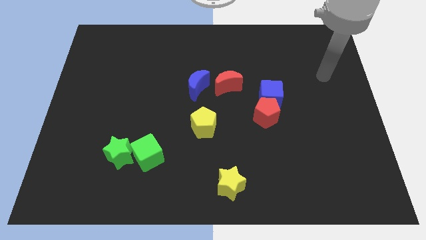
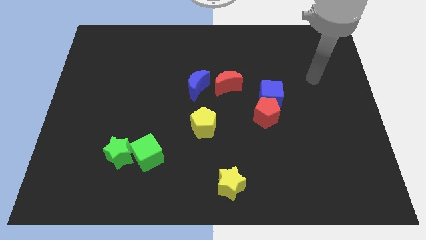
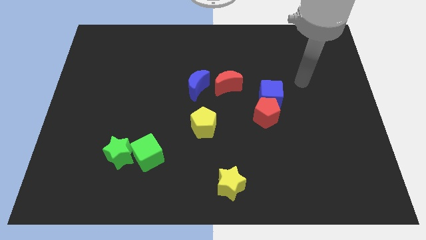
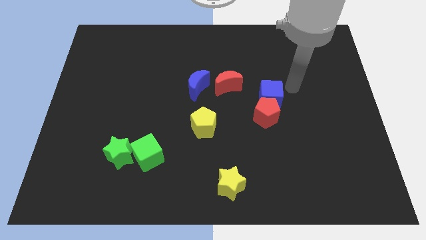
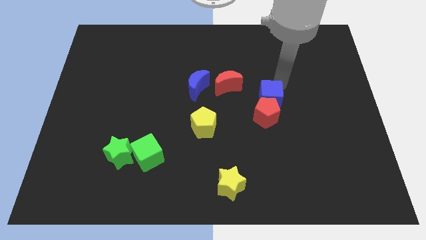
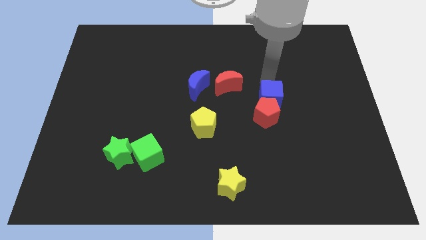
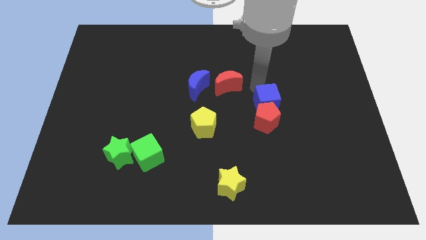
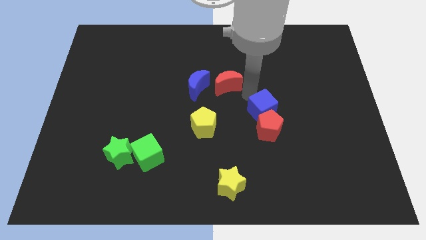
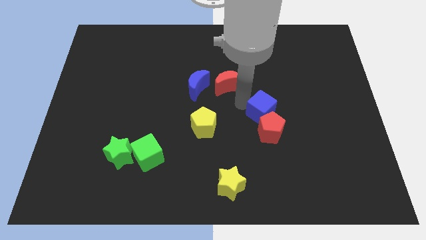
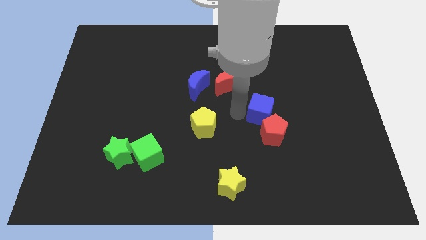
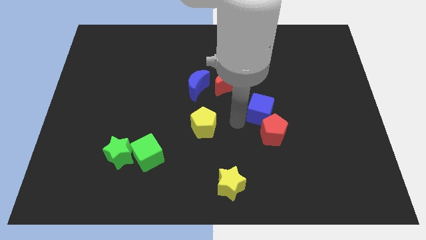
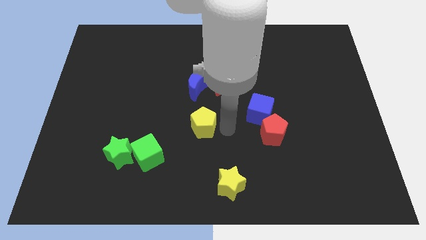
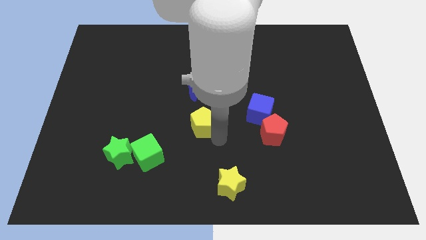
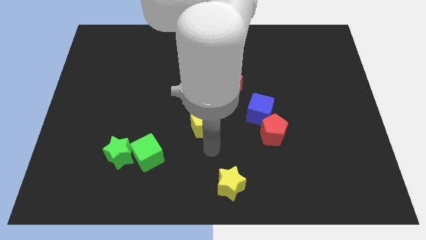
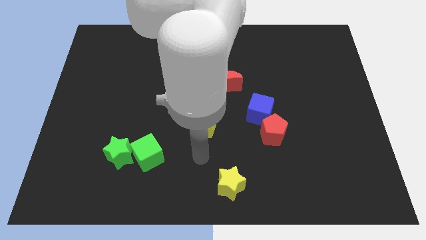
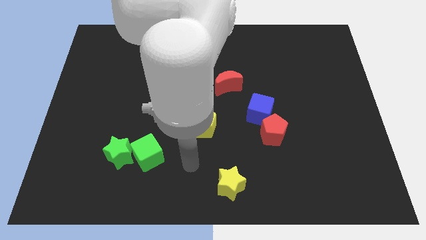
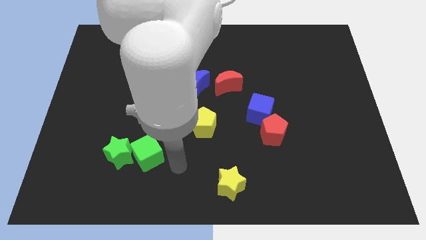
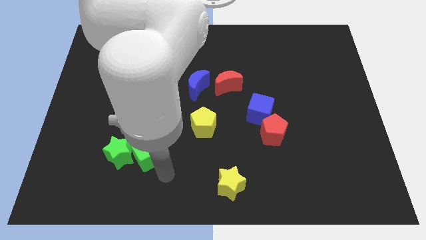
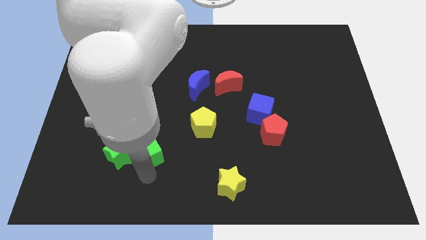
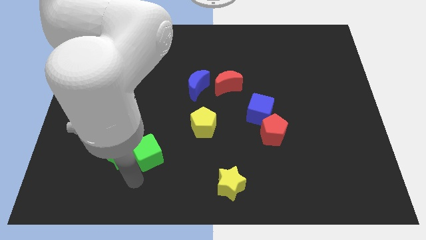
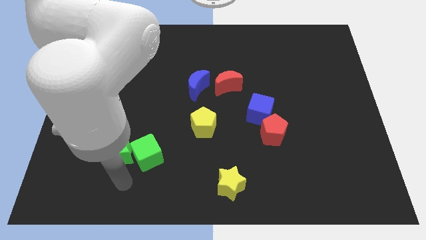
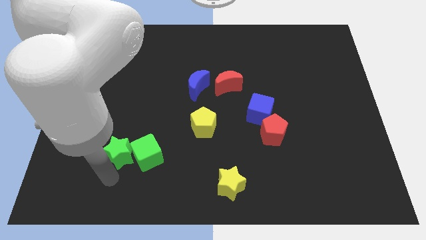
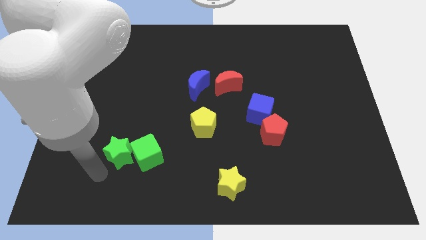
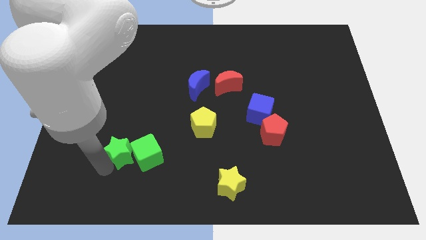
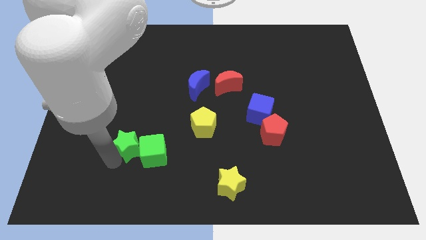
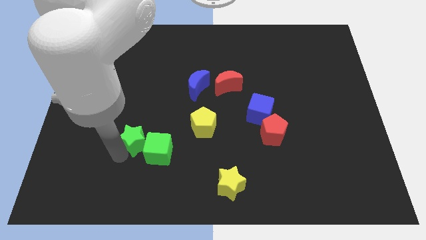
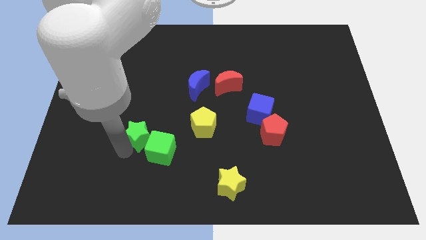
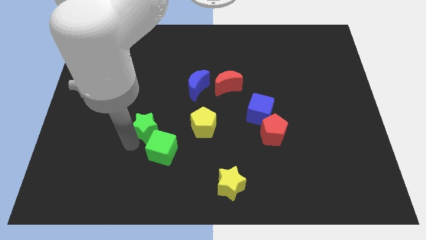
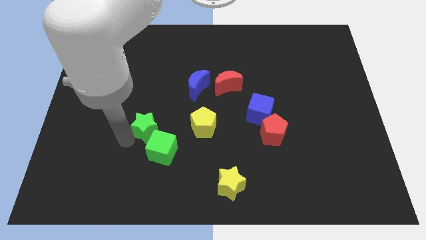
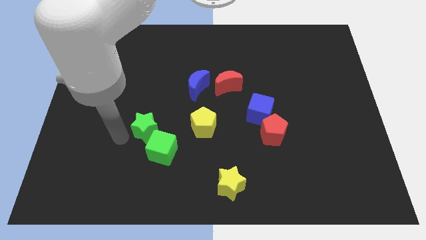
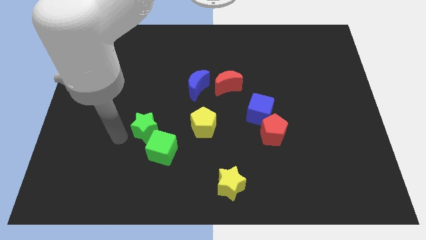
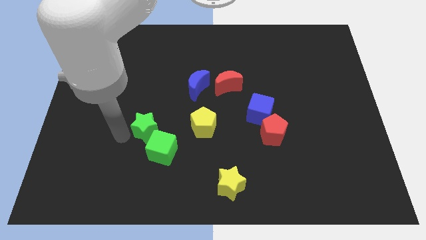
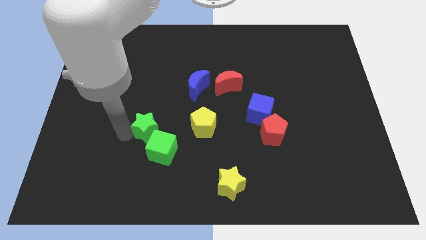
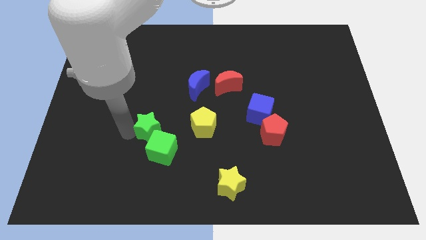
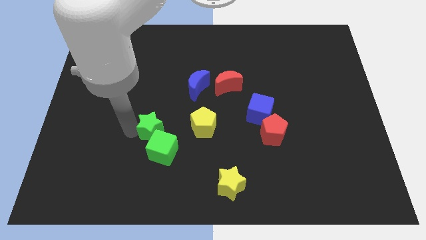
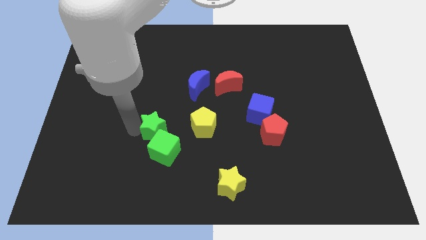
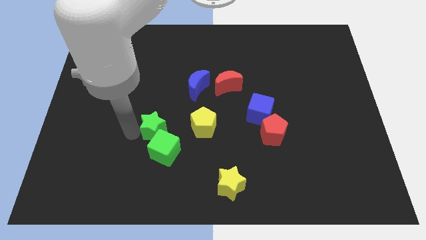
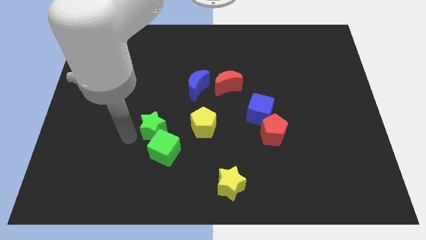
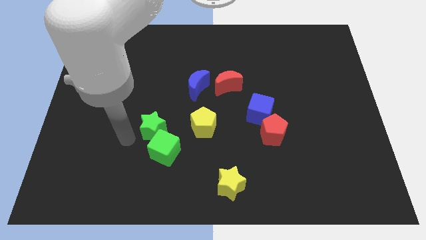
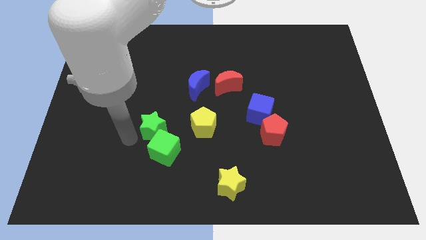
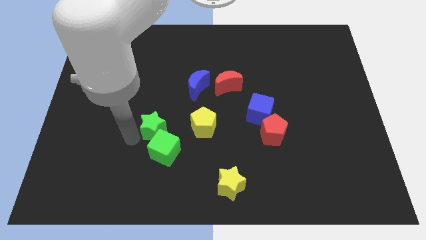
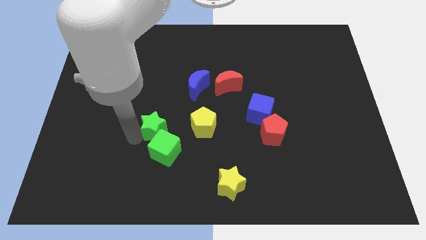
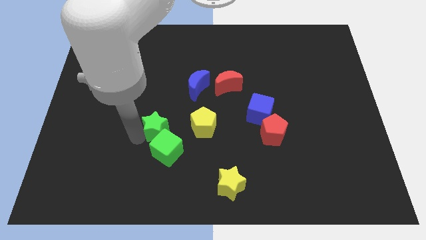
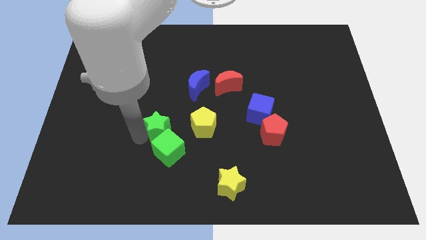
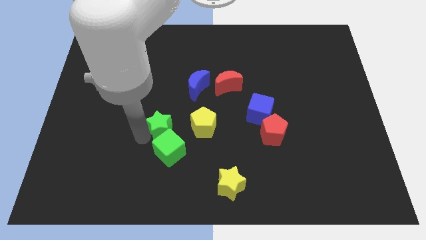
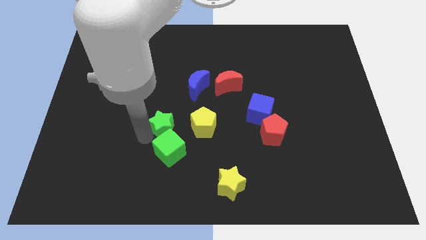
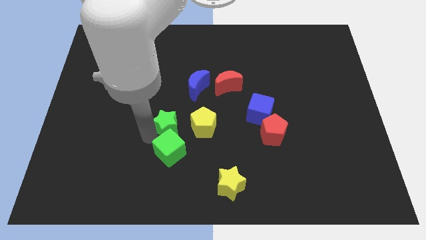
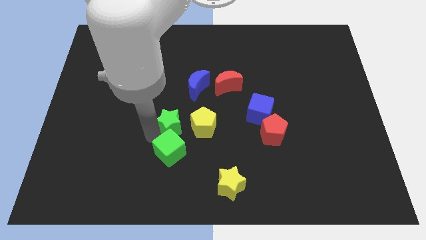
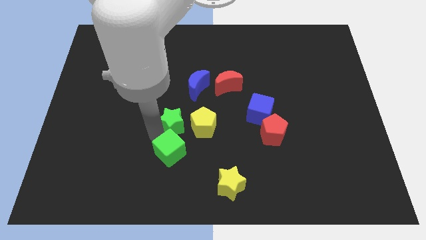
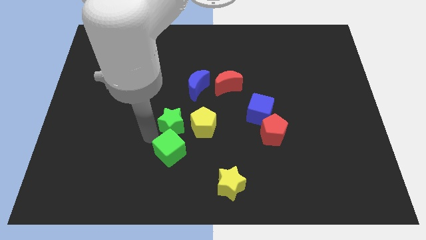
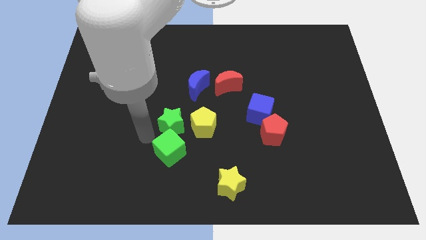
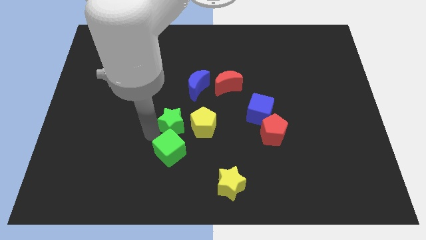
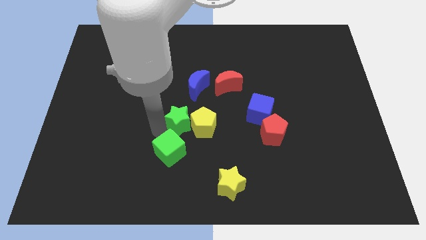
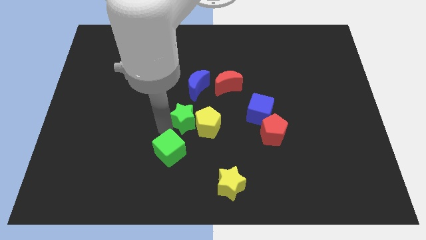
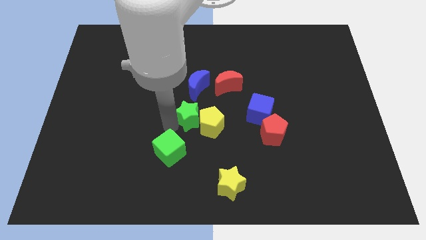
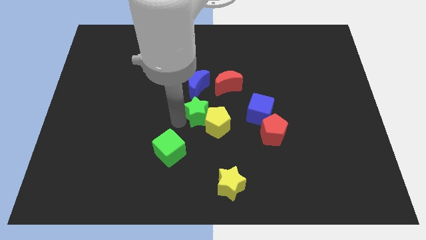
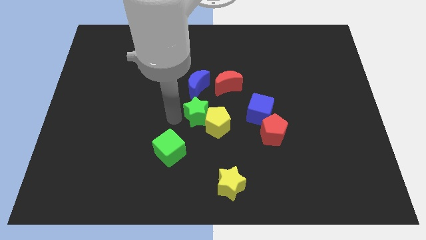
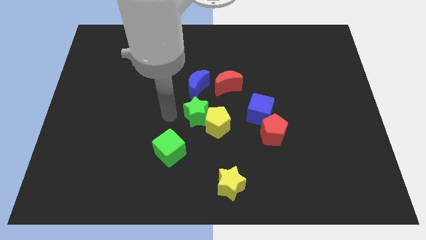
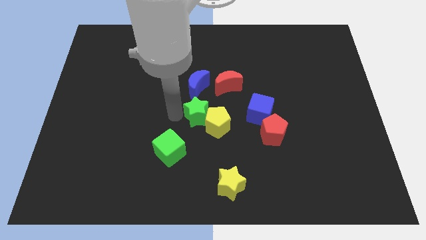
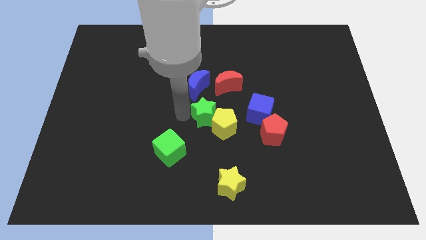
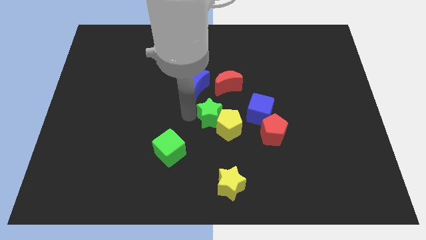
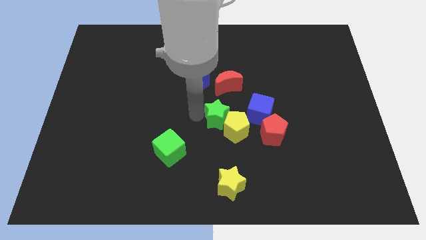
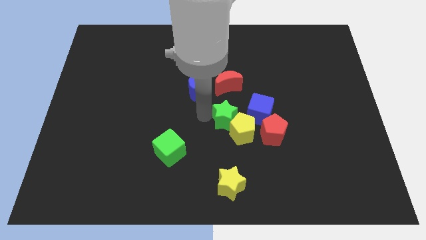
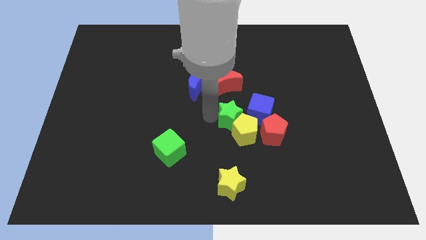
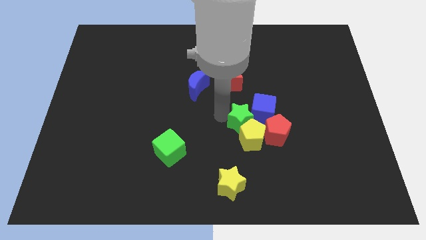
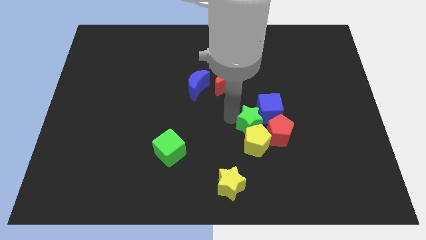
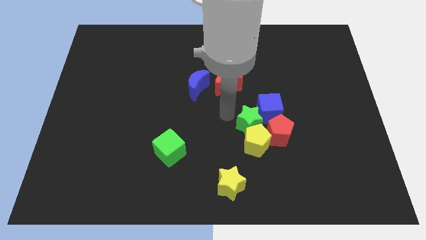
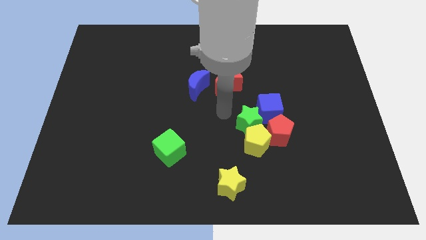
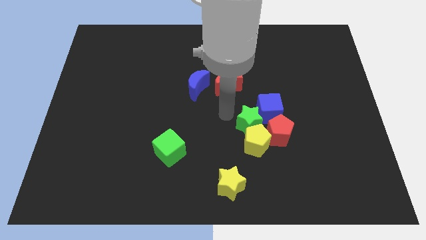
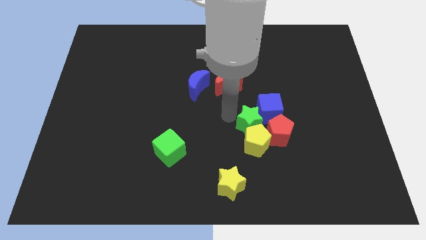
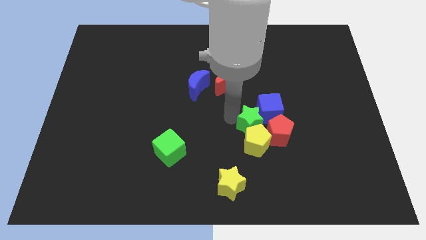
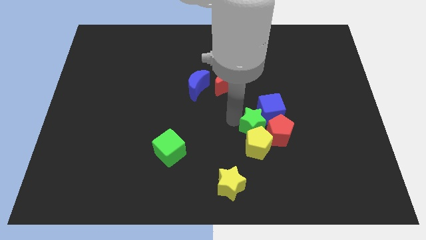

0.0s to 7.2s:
move the green star close to the red pentagon

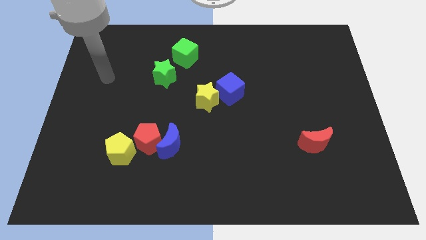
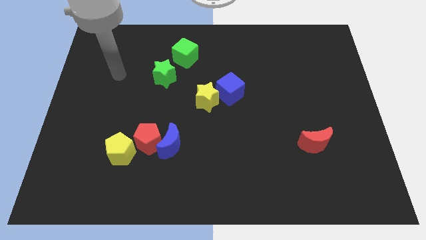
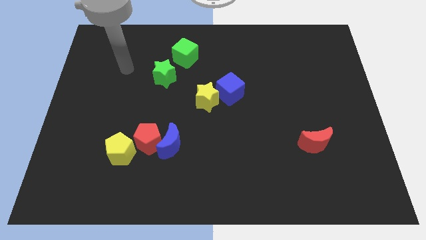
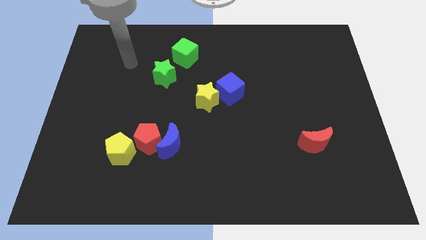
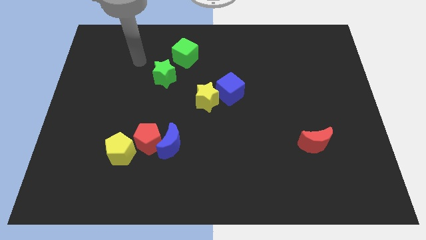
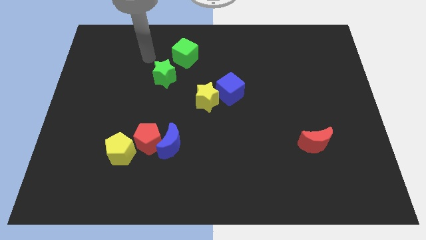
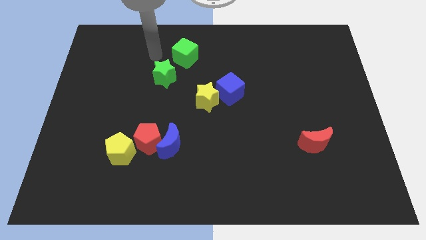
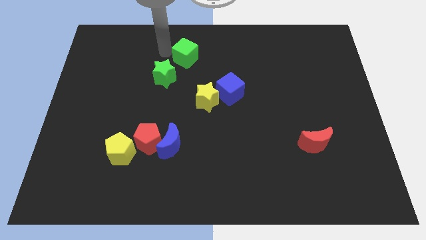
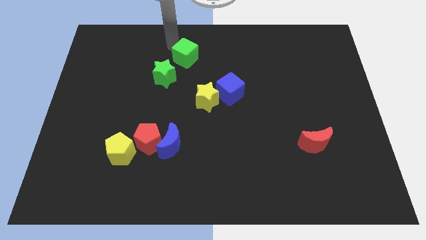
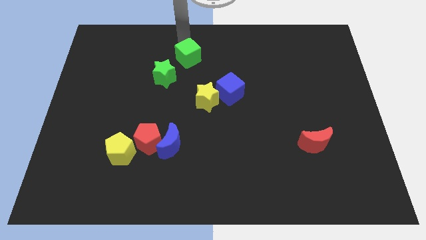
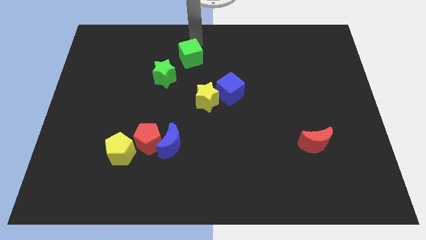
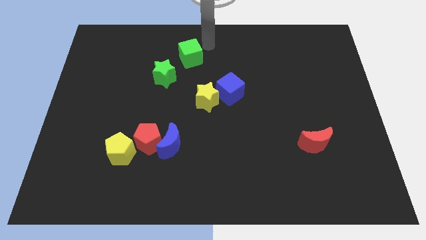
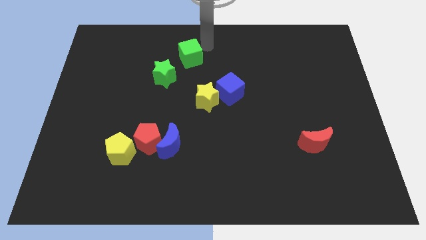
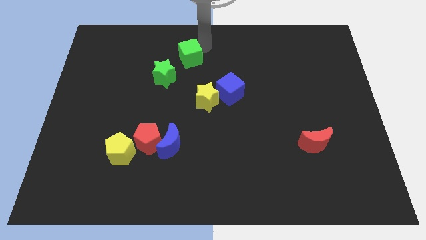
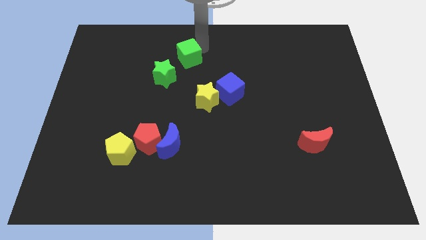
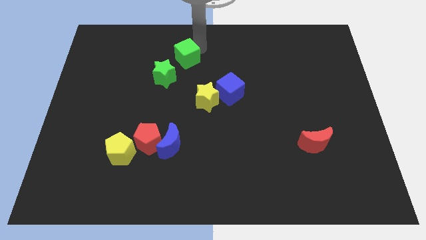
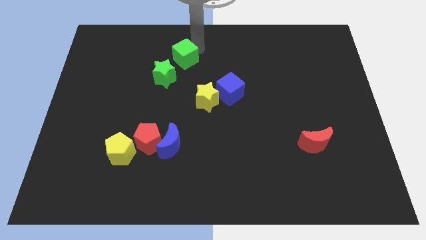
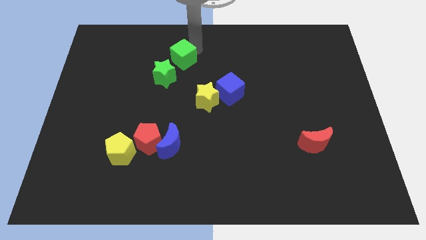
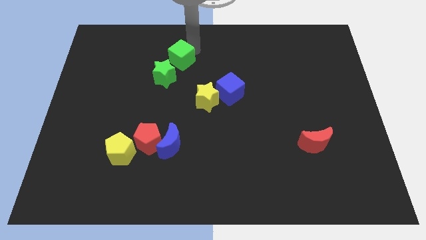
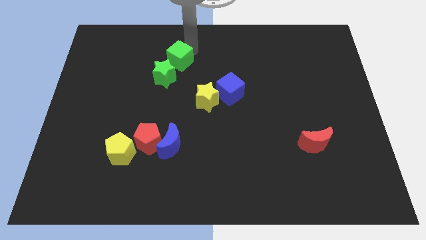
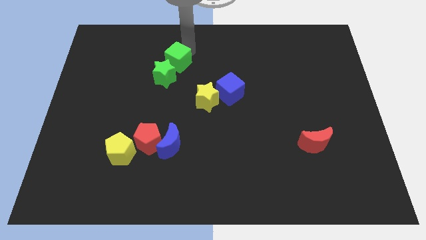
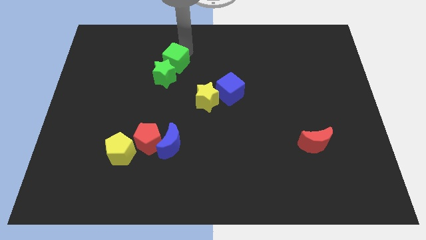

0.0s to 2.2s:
move the green cube next to the green star
